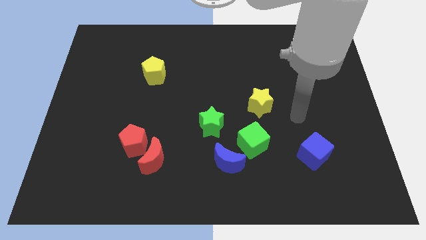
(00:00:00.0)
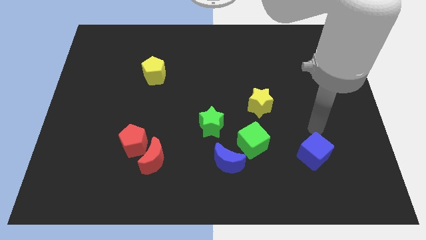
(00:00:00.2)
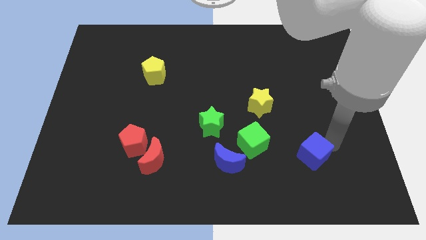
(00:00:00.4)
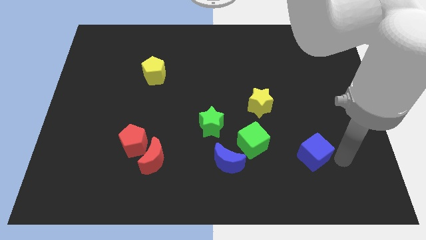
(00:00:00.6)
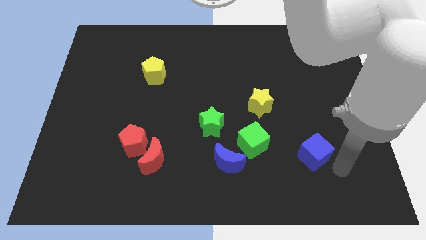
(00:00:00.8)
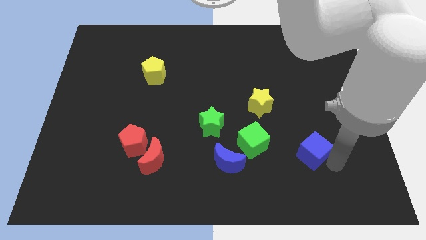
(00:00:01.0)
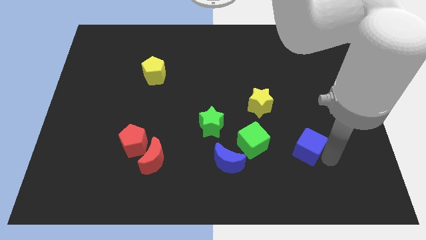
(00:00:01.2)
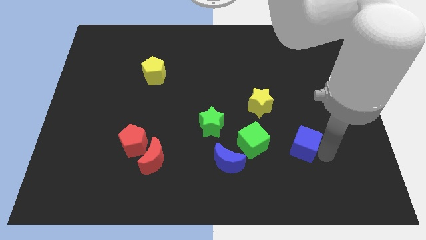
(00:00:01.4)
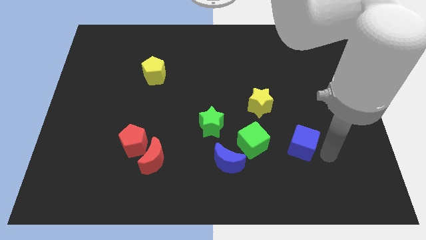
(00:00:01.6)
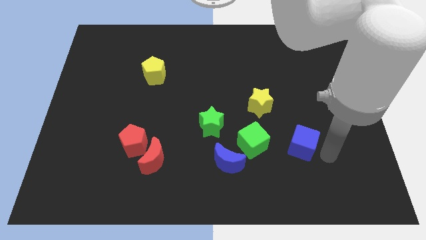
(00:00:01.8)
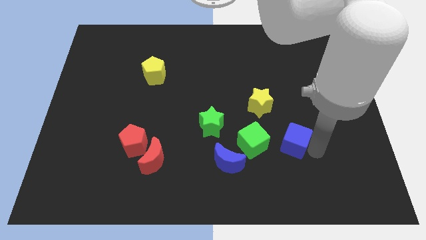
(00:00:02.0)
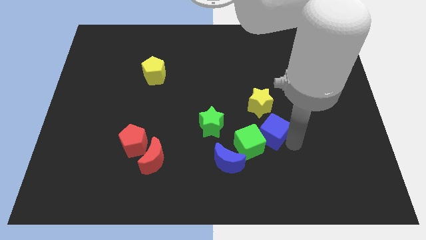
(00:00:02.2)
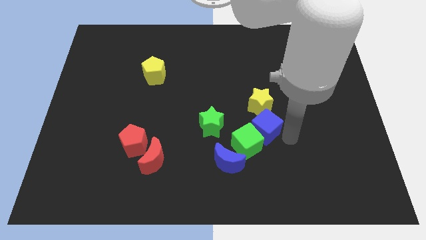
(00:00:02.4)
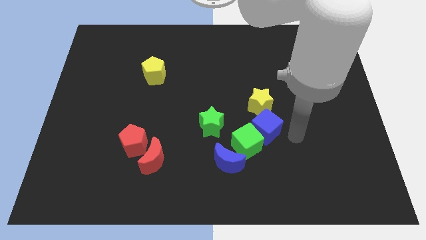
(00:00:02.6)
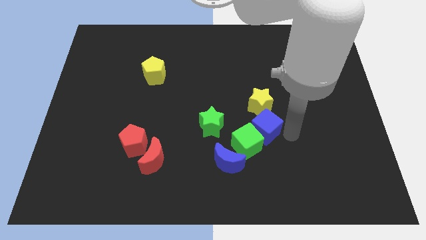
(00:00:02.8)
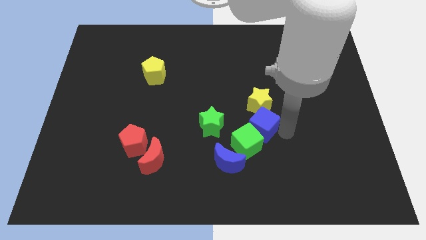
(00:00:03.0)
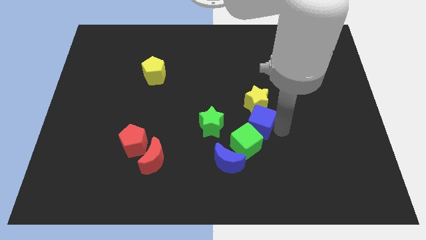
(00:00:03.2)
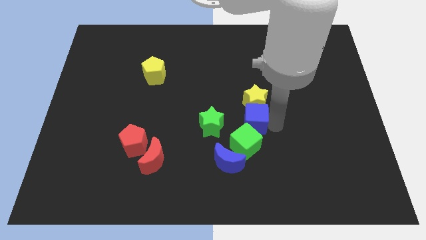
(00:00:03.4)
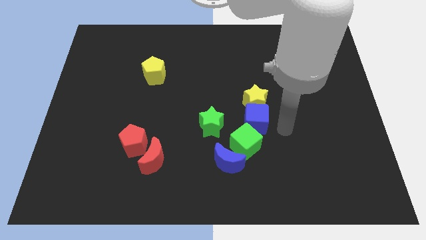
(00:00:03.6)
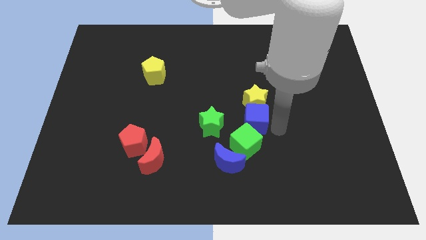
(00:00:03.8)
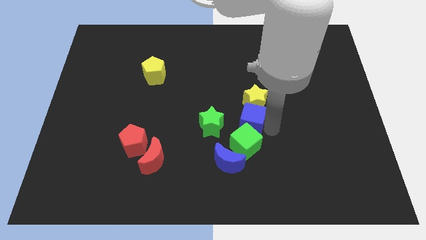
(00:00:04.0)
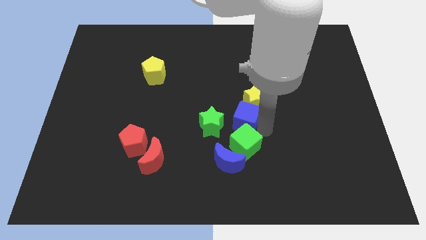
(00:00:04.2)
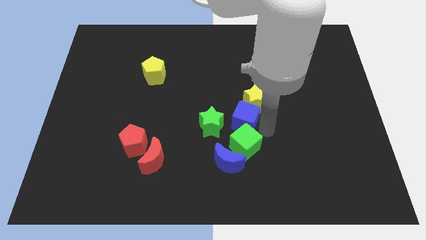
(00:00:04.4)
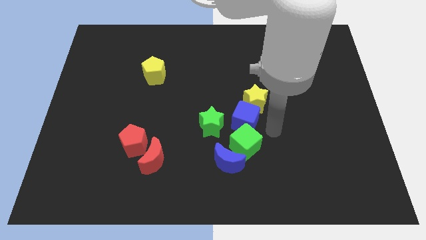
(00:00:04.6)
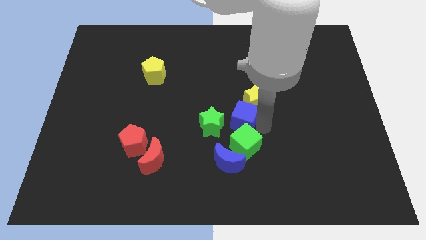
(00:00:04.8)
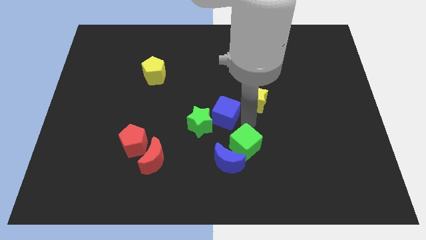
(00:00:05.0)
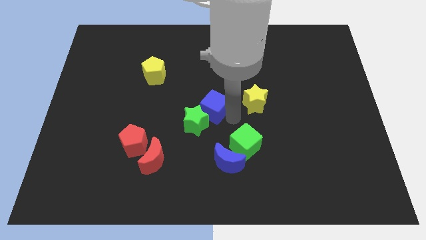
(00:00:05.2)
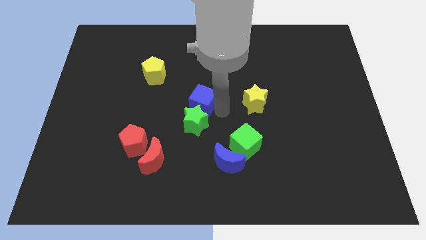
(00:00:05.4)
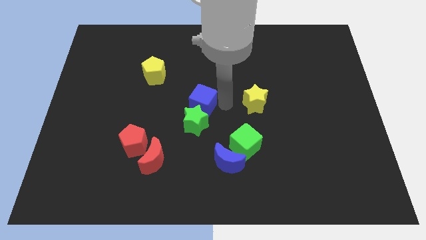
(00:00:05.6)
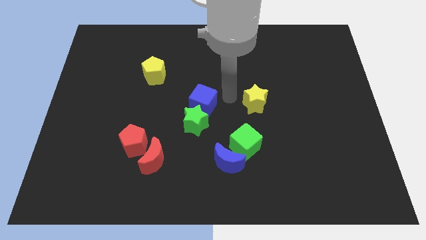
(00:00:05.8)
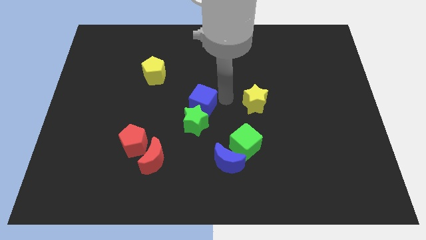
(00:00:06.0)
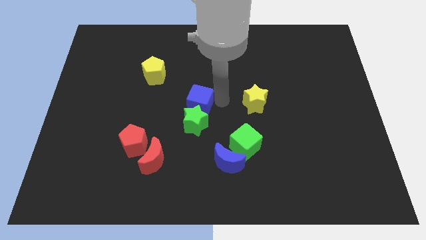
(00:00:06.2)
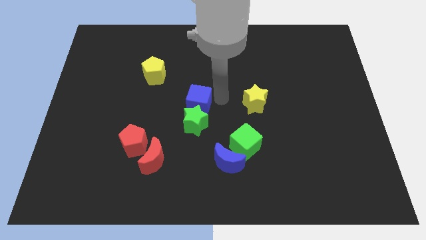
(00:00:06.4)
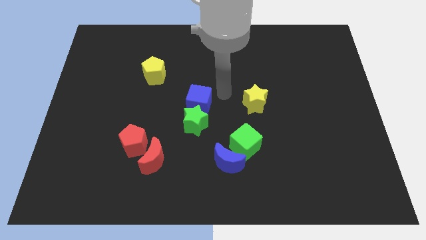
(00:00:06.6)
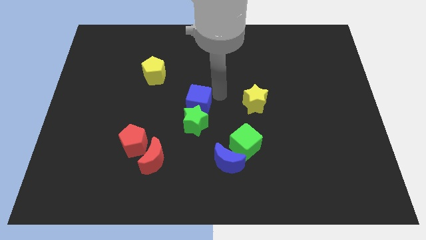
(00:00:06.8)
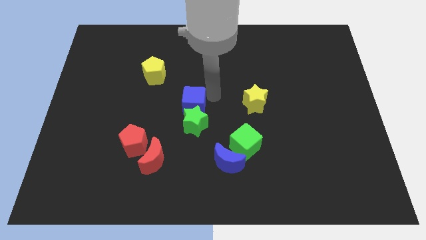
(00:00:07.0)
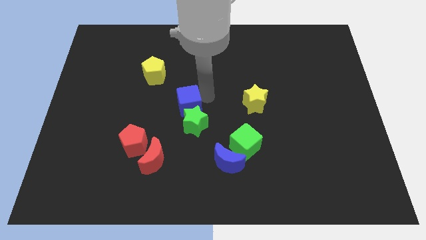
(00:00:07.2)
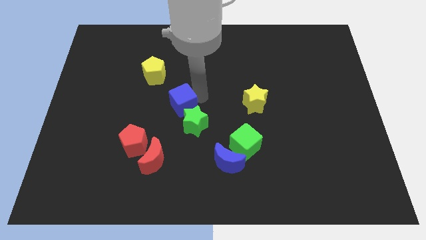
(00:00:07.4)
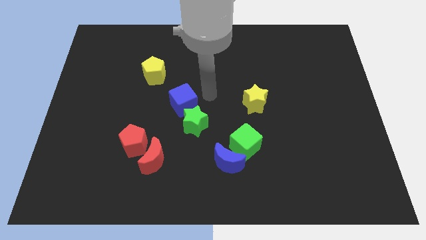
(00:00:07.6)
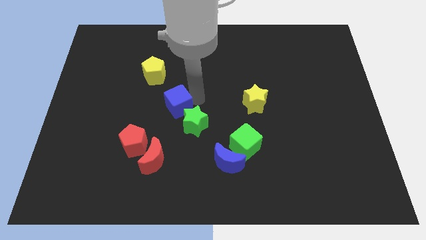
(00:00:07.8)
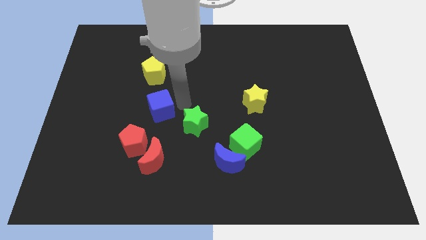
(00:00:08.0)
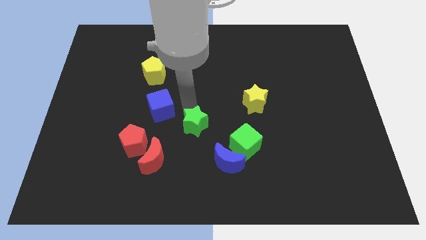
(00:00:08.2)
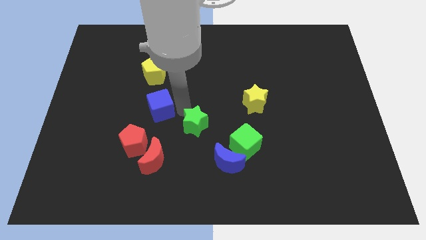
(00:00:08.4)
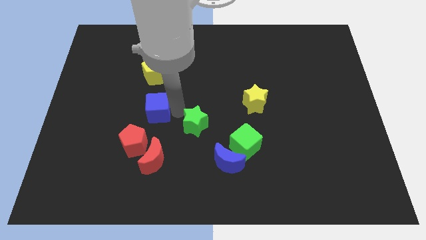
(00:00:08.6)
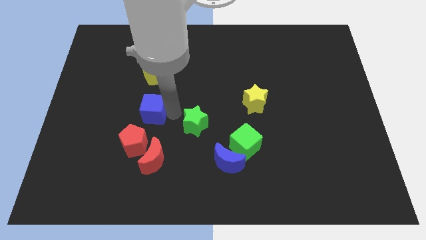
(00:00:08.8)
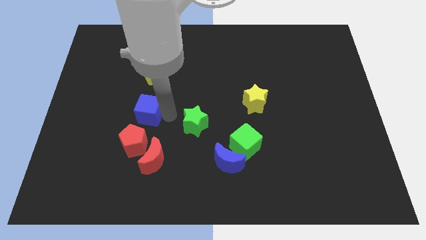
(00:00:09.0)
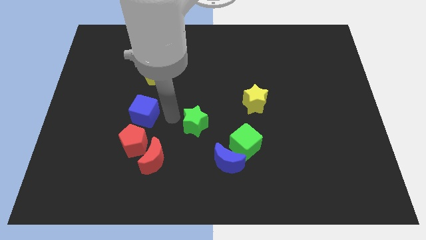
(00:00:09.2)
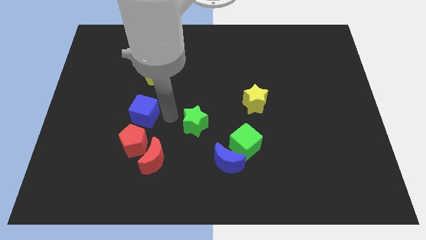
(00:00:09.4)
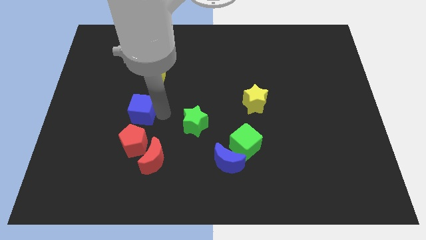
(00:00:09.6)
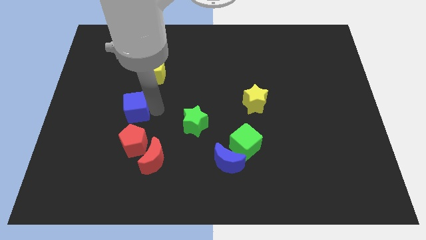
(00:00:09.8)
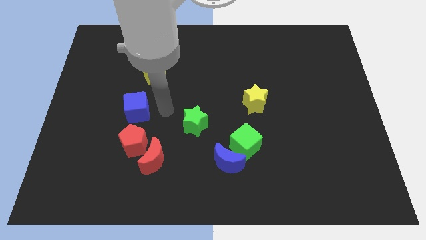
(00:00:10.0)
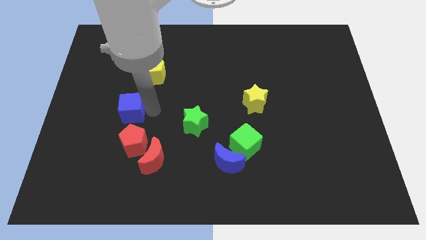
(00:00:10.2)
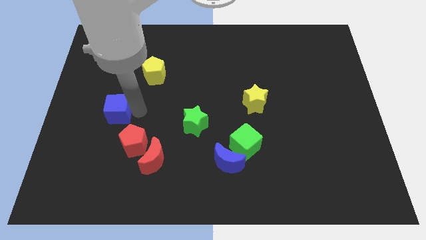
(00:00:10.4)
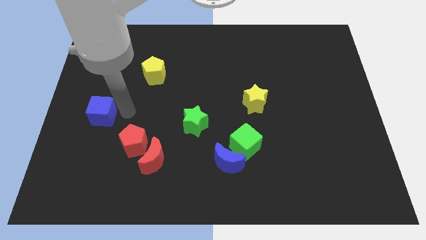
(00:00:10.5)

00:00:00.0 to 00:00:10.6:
put the blue cube to the left side of the board

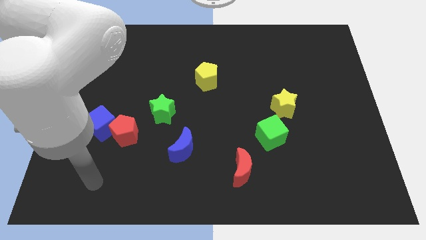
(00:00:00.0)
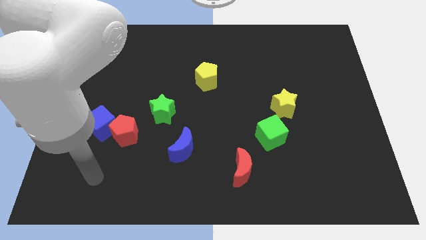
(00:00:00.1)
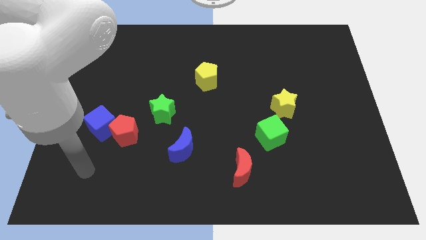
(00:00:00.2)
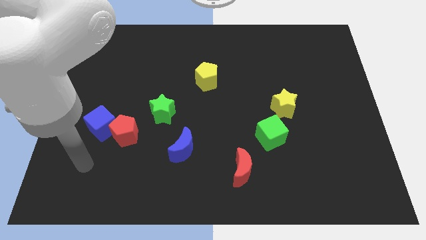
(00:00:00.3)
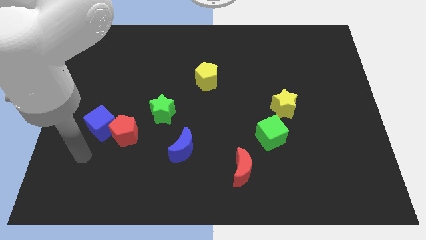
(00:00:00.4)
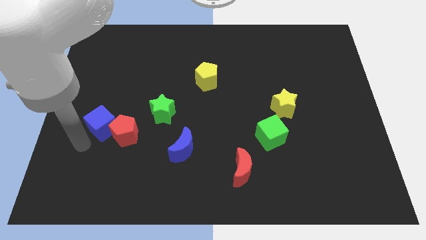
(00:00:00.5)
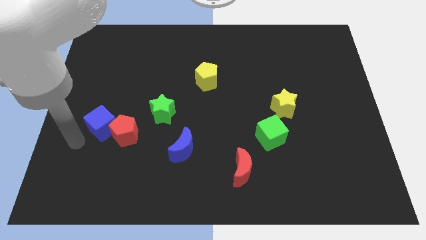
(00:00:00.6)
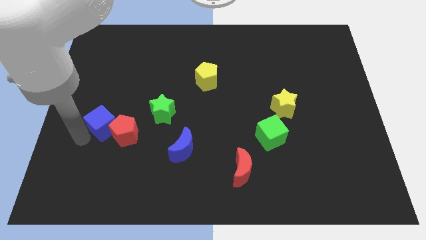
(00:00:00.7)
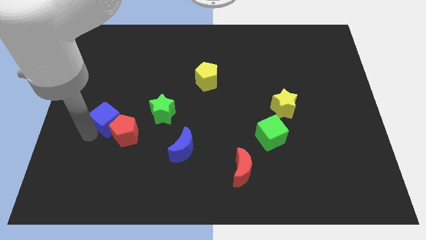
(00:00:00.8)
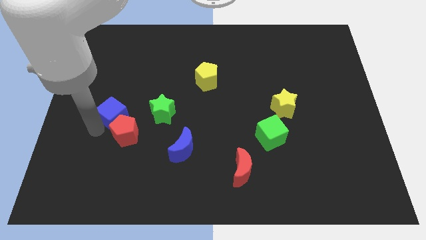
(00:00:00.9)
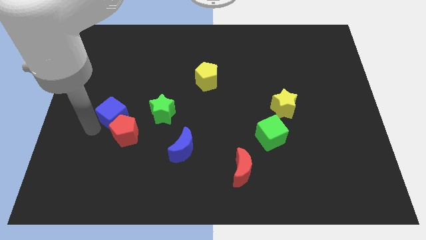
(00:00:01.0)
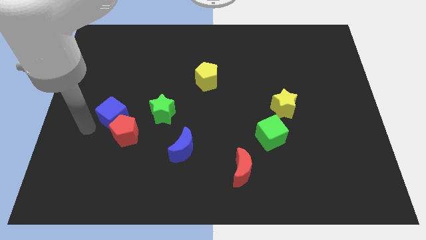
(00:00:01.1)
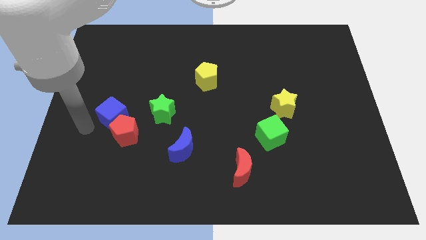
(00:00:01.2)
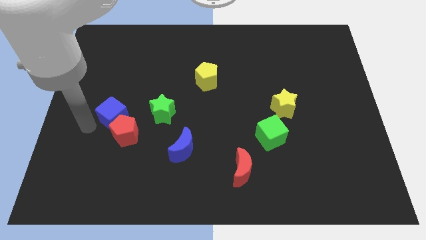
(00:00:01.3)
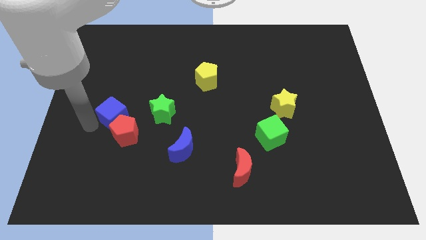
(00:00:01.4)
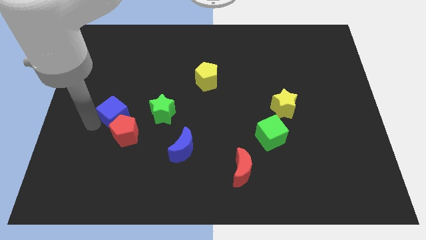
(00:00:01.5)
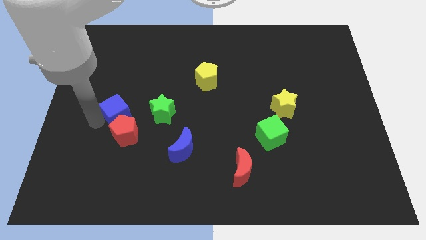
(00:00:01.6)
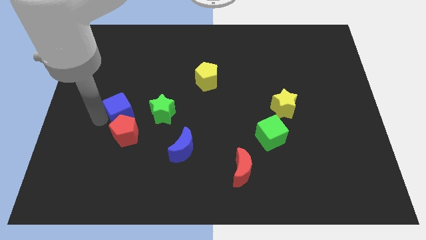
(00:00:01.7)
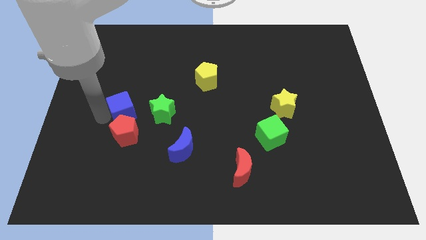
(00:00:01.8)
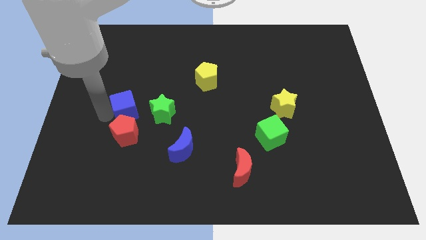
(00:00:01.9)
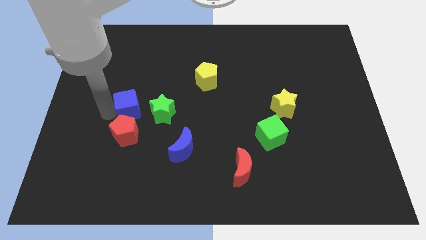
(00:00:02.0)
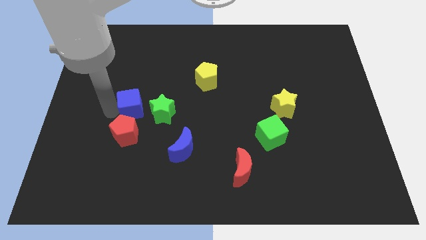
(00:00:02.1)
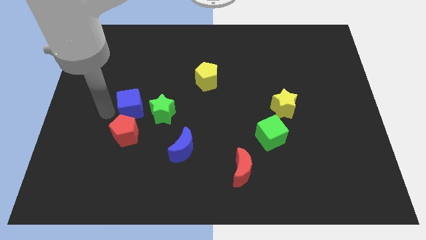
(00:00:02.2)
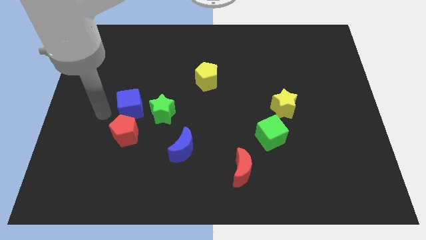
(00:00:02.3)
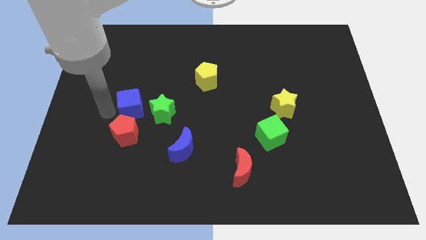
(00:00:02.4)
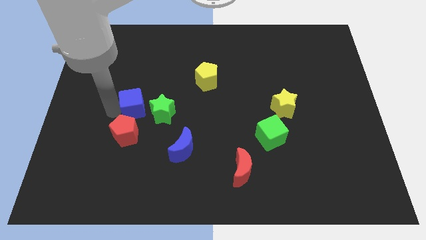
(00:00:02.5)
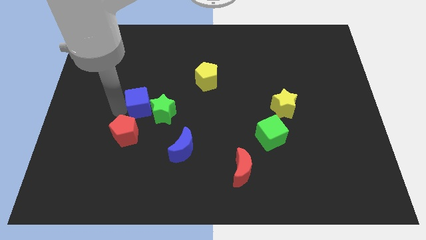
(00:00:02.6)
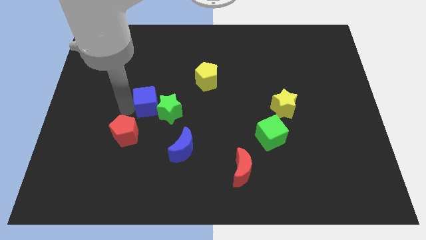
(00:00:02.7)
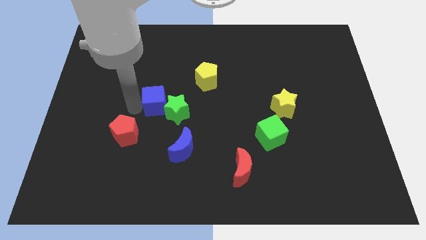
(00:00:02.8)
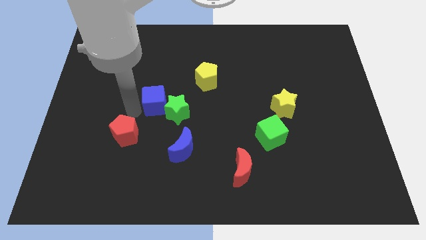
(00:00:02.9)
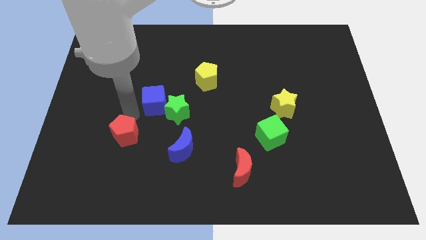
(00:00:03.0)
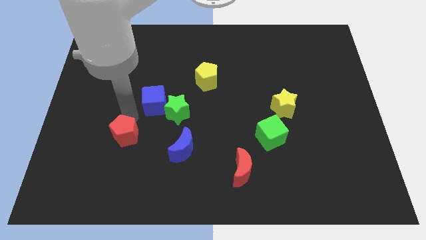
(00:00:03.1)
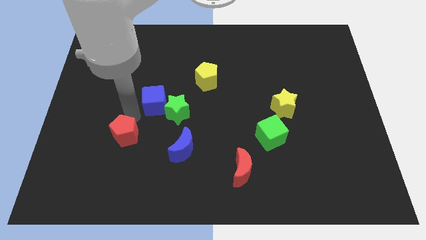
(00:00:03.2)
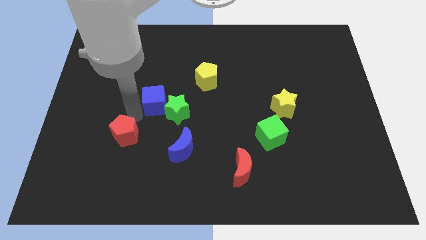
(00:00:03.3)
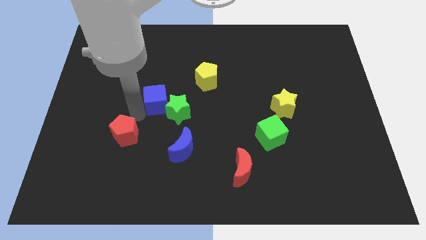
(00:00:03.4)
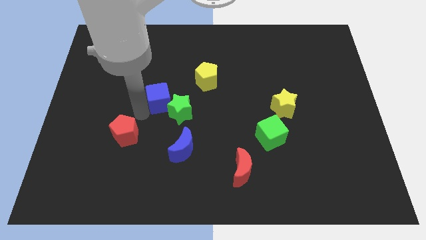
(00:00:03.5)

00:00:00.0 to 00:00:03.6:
slide the blue cube to the middle of the board
